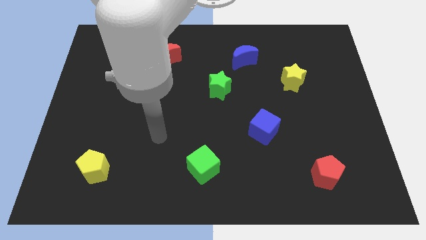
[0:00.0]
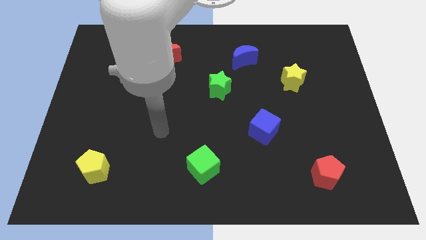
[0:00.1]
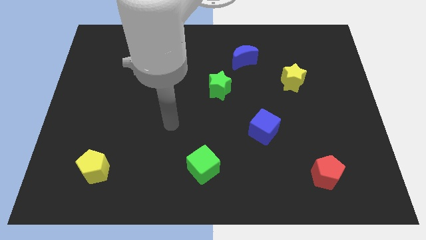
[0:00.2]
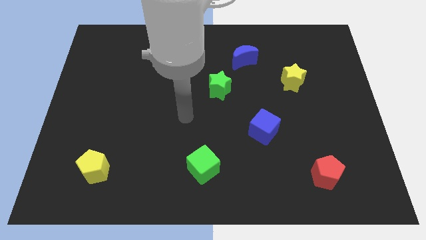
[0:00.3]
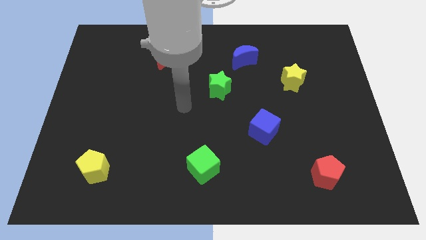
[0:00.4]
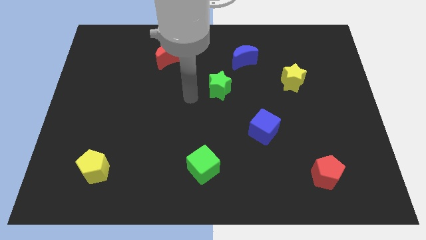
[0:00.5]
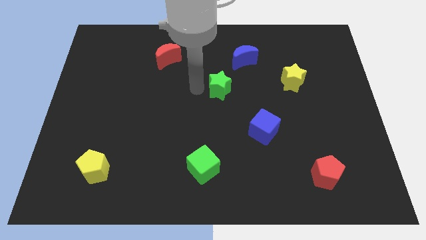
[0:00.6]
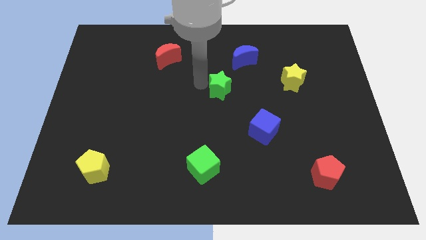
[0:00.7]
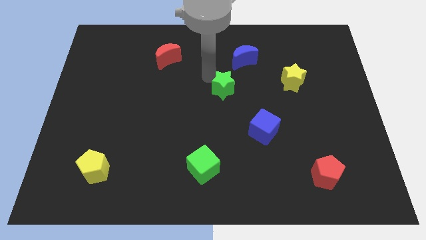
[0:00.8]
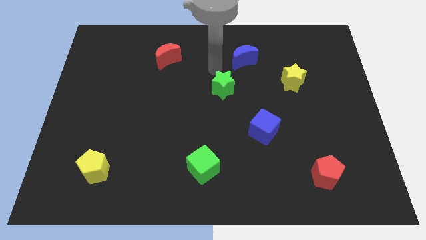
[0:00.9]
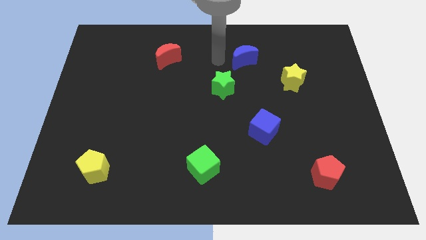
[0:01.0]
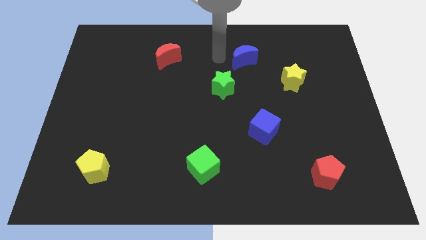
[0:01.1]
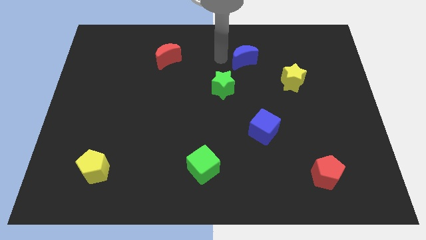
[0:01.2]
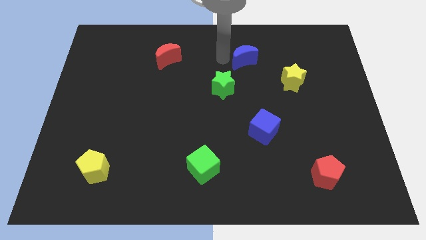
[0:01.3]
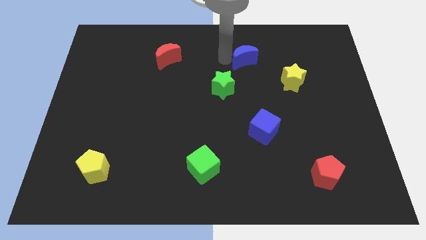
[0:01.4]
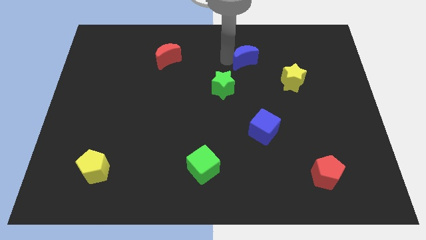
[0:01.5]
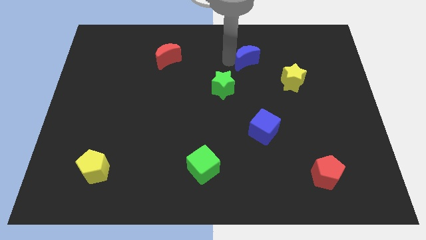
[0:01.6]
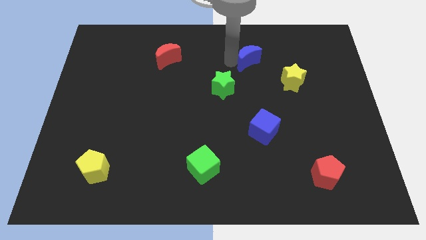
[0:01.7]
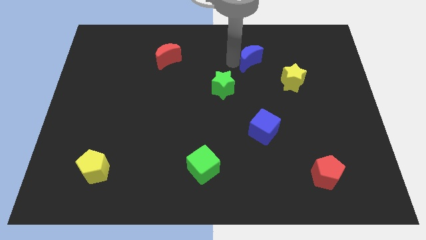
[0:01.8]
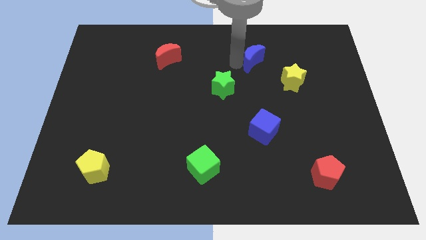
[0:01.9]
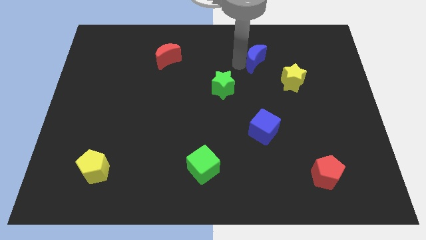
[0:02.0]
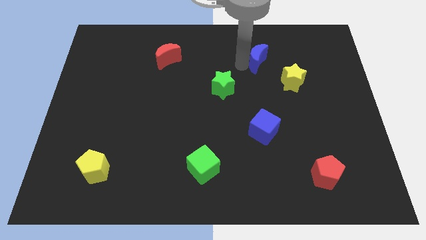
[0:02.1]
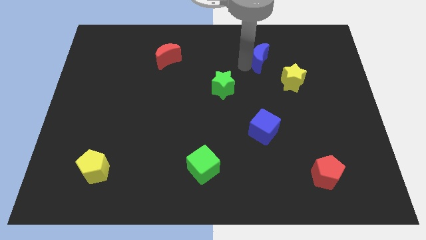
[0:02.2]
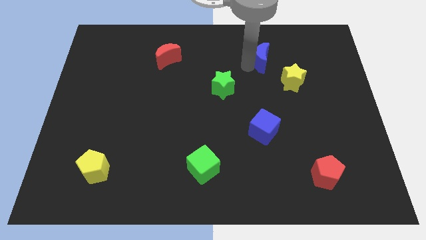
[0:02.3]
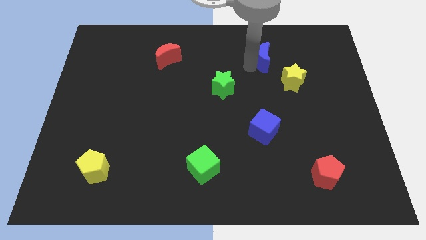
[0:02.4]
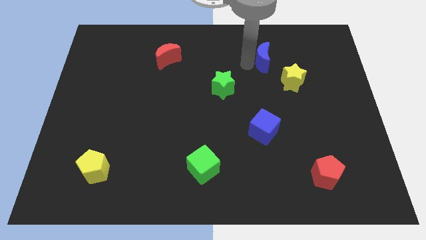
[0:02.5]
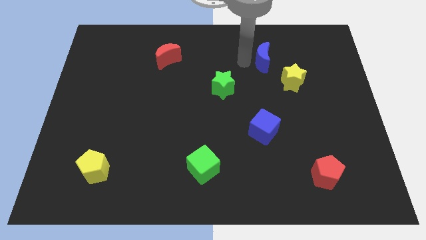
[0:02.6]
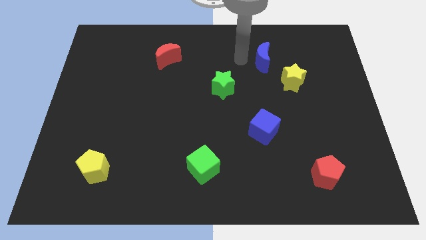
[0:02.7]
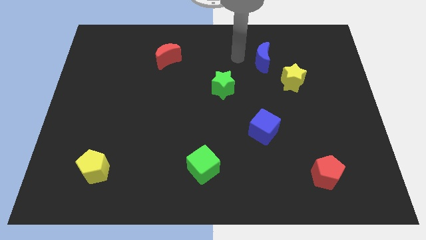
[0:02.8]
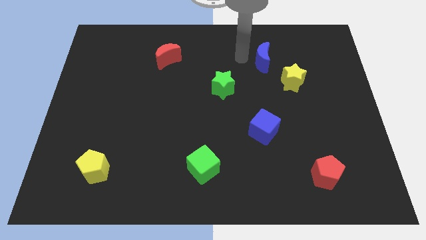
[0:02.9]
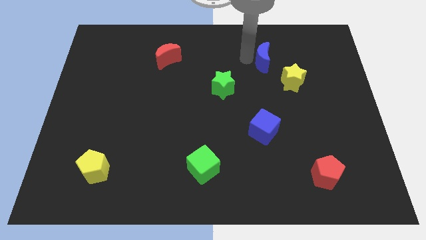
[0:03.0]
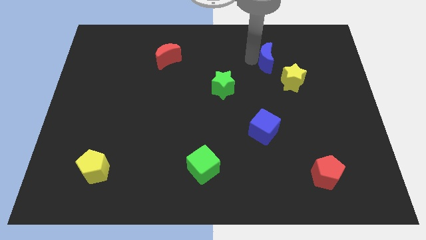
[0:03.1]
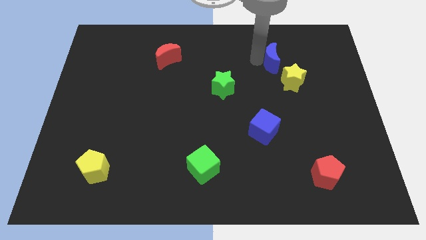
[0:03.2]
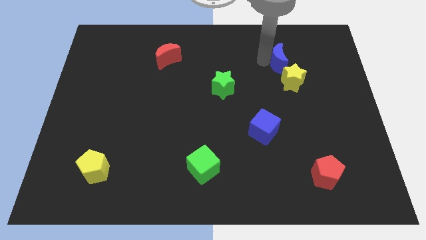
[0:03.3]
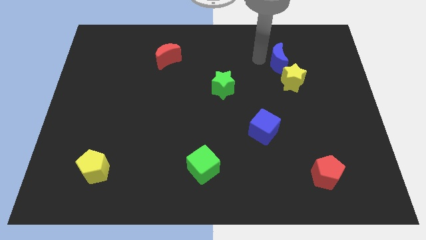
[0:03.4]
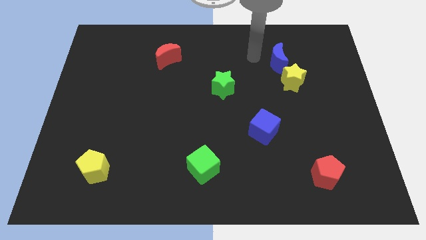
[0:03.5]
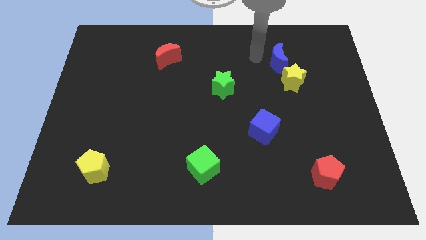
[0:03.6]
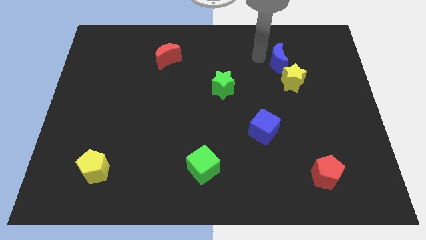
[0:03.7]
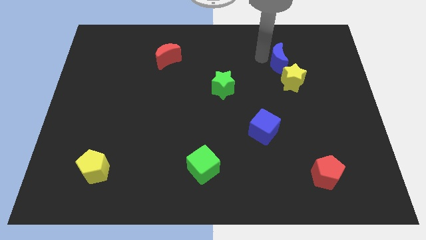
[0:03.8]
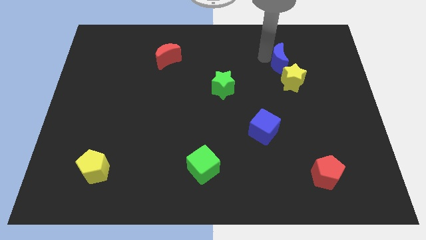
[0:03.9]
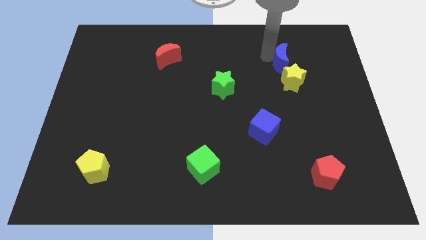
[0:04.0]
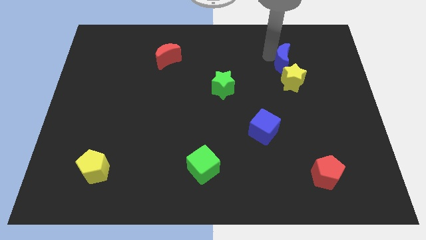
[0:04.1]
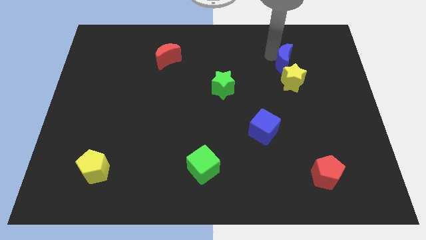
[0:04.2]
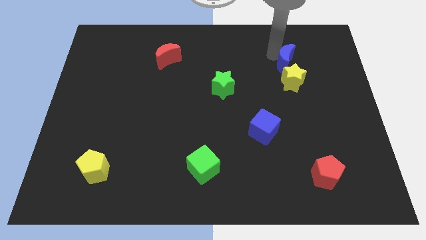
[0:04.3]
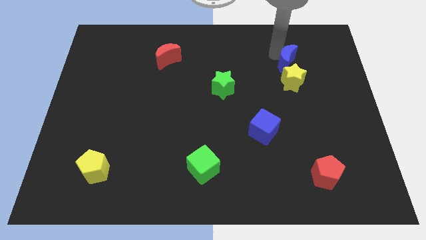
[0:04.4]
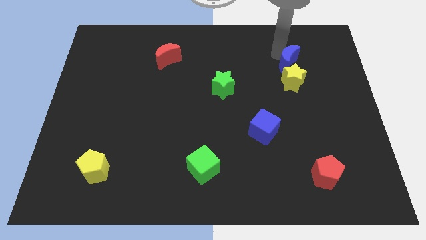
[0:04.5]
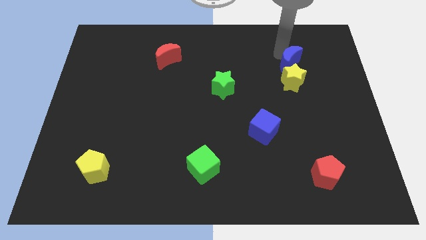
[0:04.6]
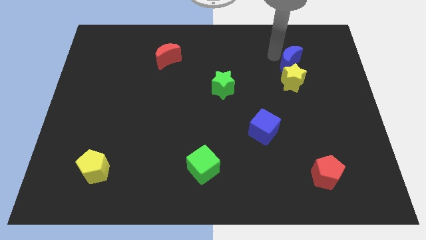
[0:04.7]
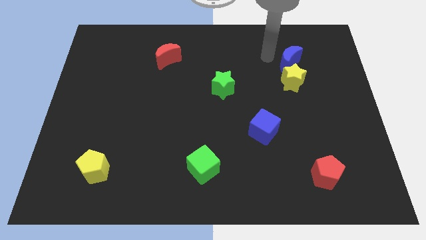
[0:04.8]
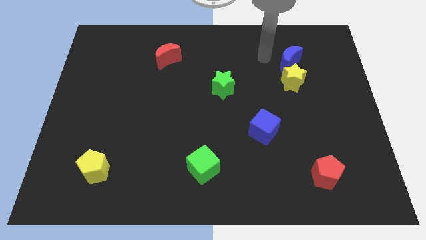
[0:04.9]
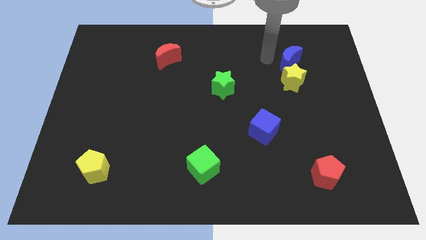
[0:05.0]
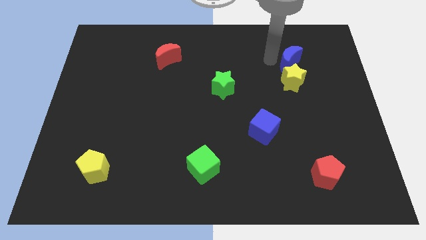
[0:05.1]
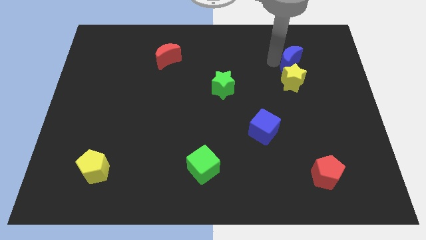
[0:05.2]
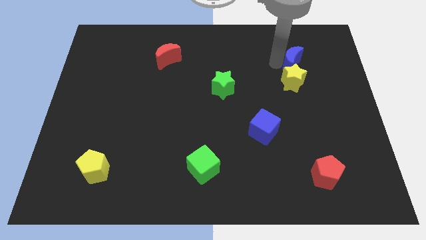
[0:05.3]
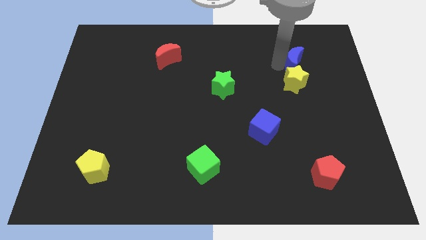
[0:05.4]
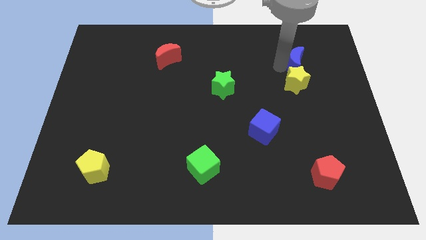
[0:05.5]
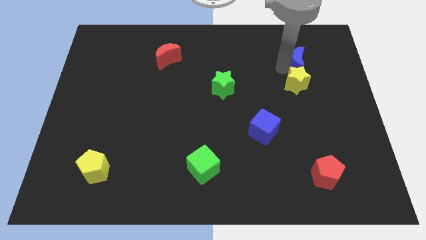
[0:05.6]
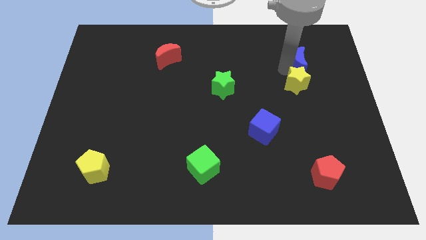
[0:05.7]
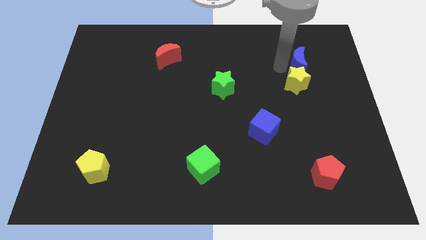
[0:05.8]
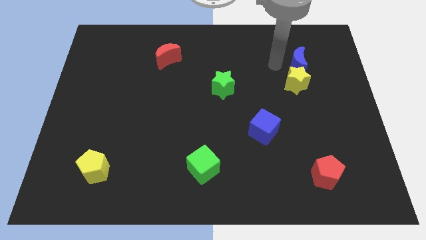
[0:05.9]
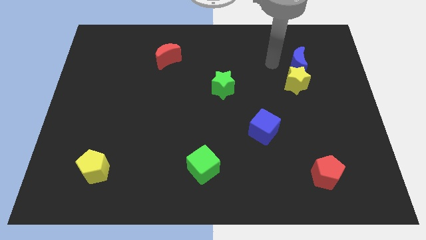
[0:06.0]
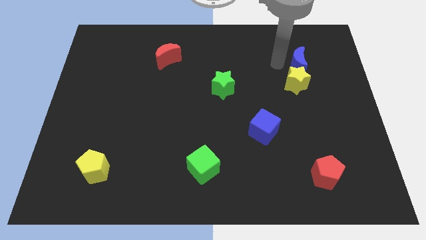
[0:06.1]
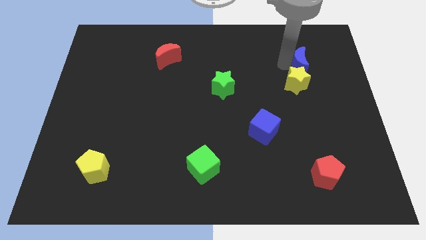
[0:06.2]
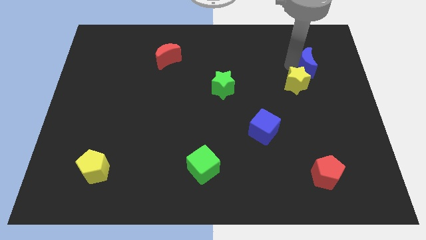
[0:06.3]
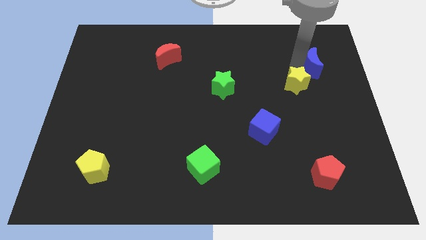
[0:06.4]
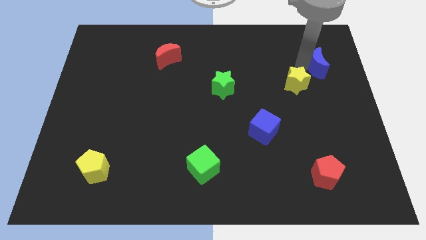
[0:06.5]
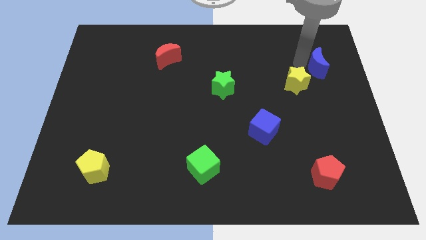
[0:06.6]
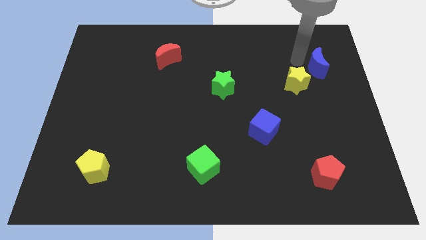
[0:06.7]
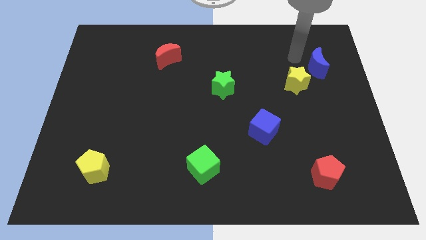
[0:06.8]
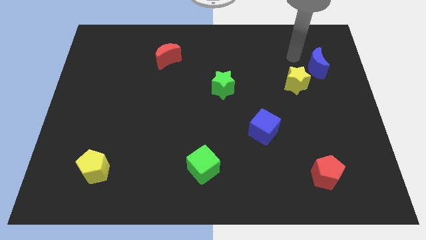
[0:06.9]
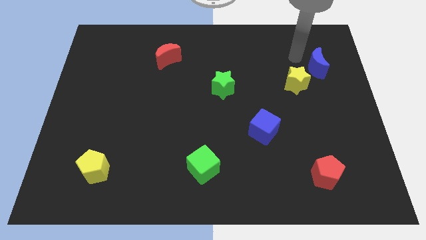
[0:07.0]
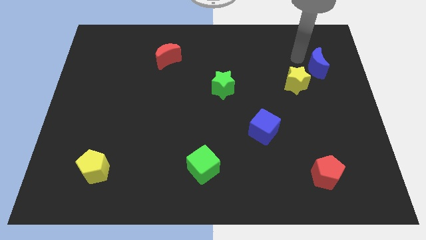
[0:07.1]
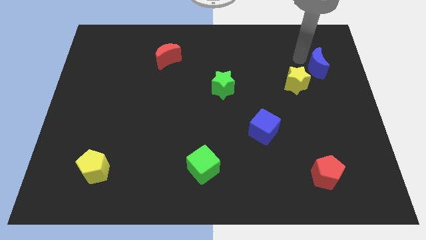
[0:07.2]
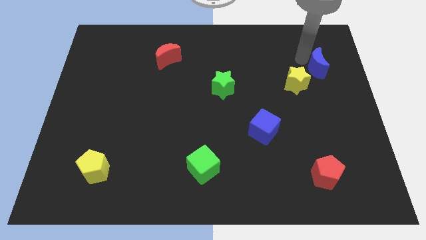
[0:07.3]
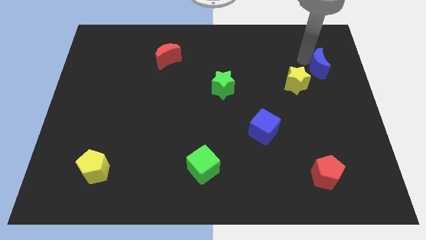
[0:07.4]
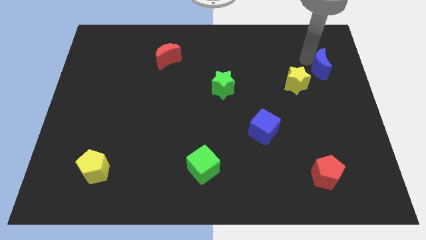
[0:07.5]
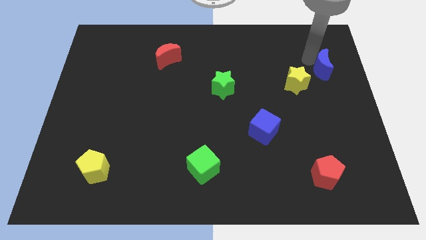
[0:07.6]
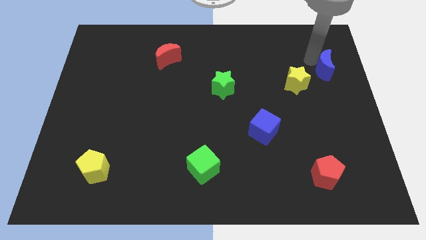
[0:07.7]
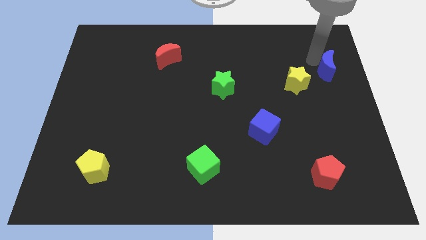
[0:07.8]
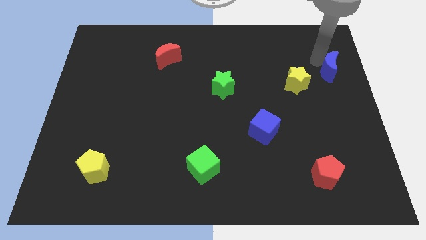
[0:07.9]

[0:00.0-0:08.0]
put the blue moon to the right side
